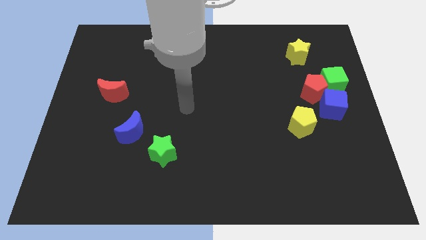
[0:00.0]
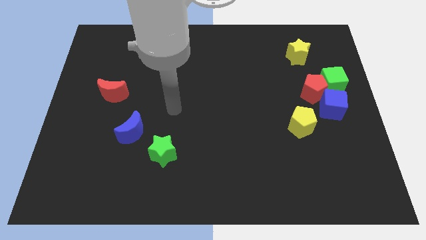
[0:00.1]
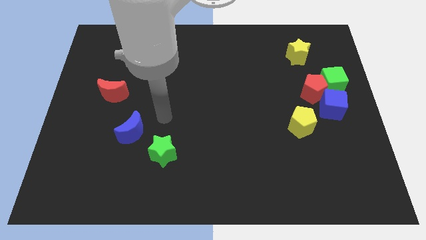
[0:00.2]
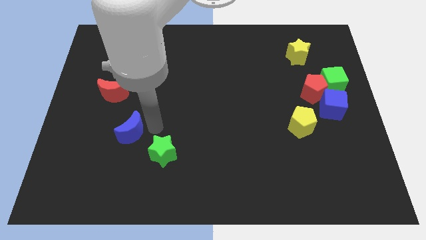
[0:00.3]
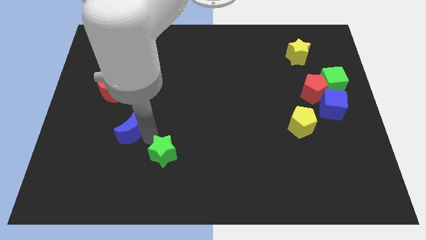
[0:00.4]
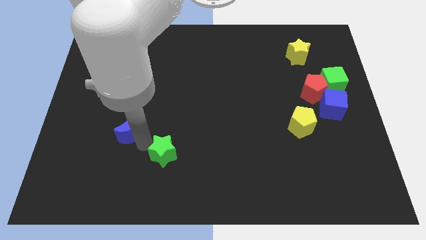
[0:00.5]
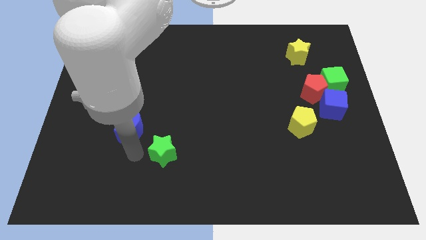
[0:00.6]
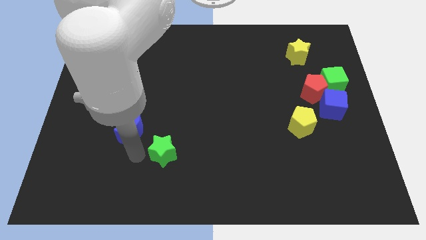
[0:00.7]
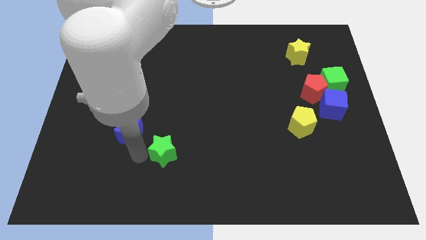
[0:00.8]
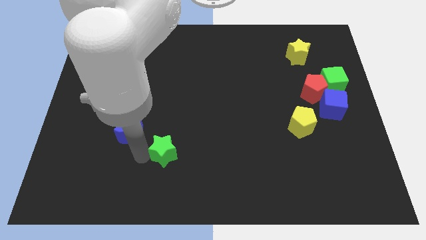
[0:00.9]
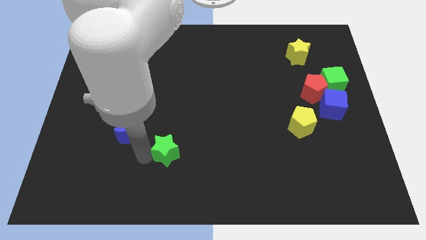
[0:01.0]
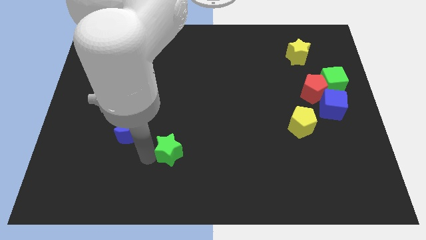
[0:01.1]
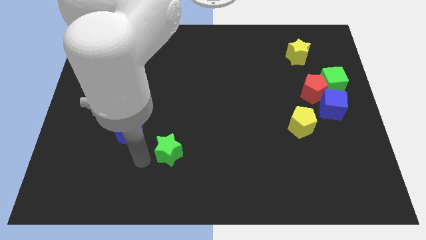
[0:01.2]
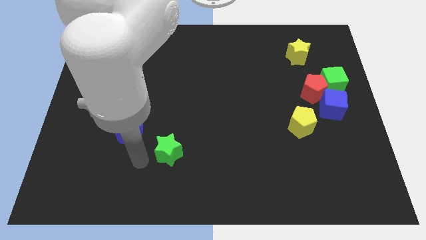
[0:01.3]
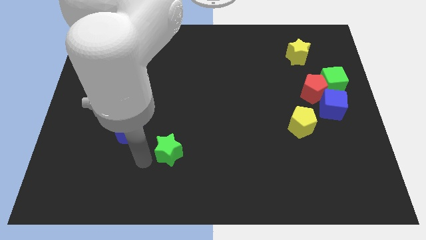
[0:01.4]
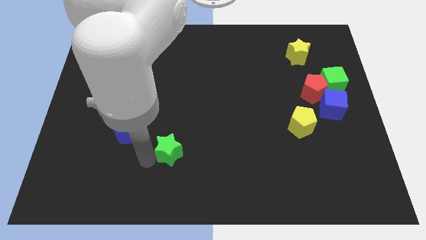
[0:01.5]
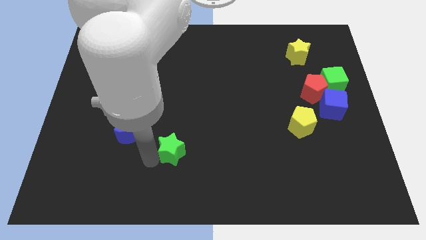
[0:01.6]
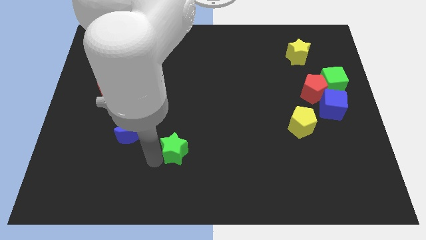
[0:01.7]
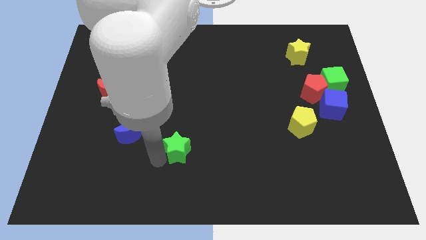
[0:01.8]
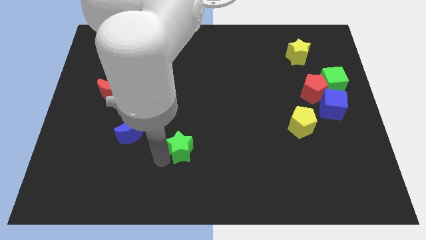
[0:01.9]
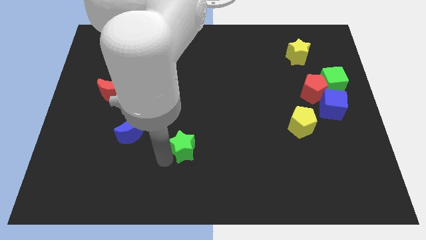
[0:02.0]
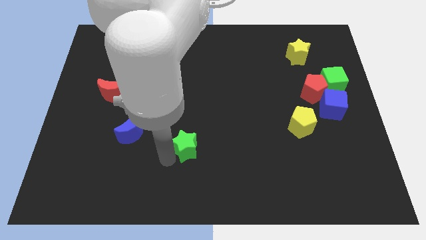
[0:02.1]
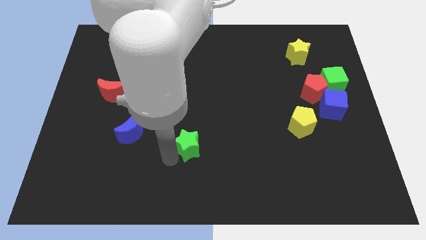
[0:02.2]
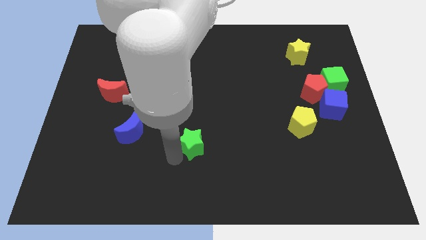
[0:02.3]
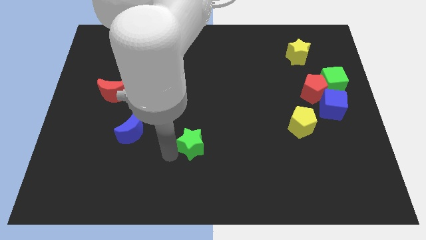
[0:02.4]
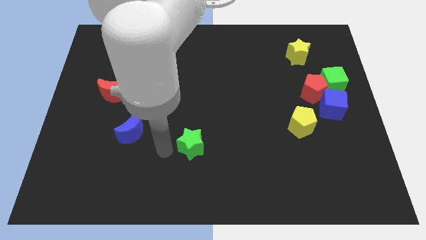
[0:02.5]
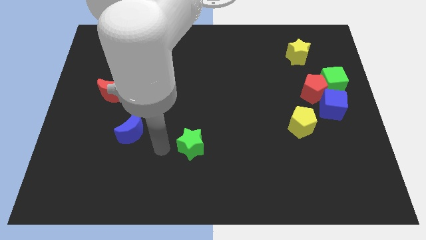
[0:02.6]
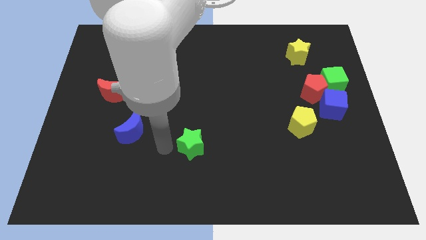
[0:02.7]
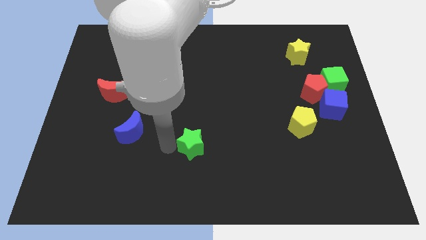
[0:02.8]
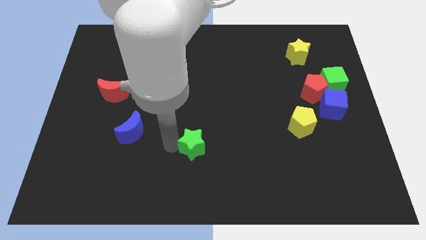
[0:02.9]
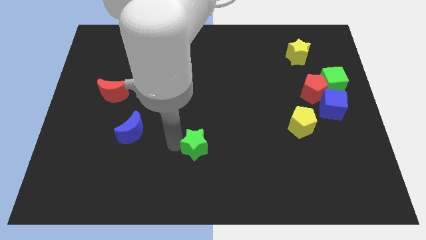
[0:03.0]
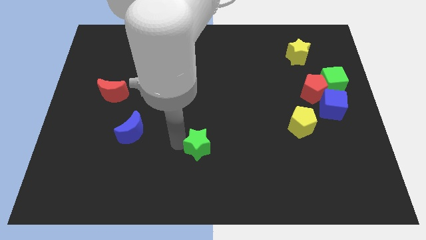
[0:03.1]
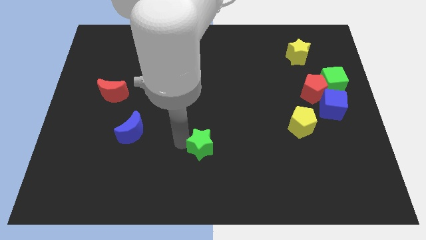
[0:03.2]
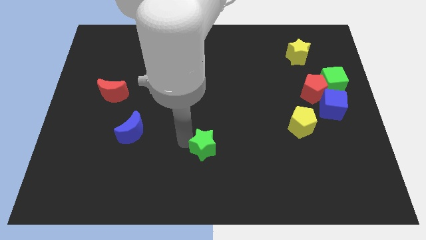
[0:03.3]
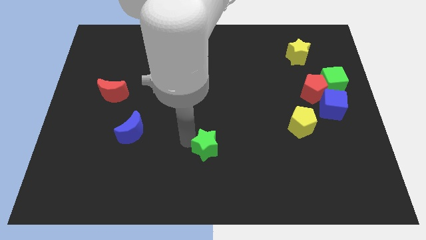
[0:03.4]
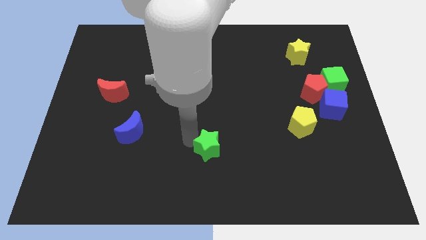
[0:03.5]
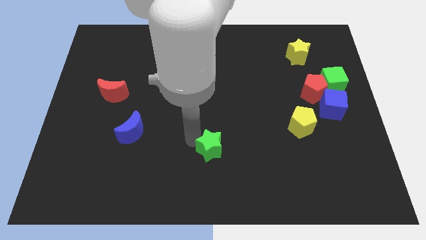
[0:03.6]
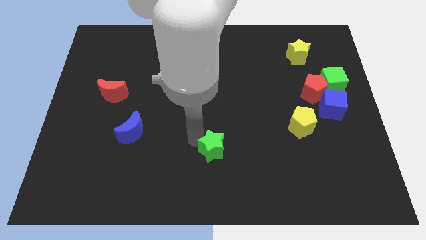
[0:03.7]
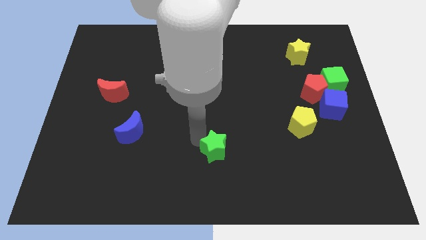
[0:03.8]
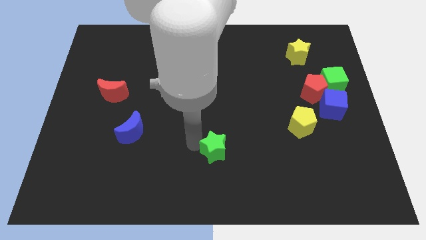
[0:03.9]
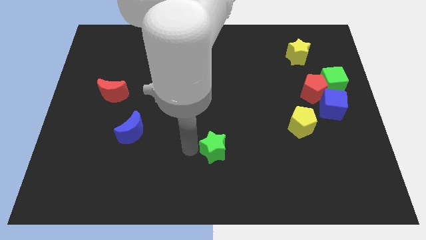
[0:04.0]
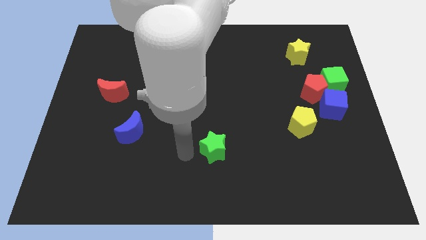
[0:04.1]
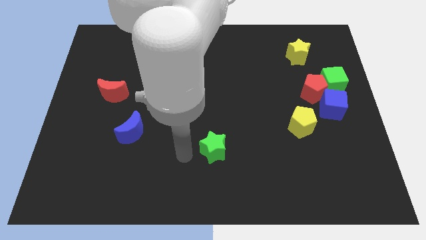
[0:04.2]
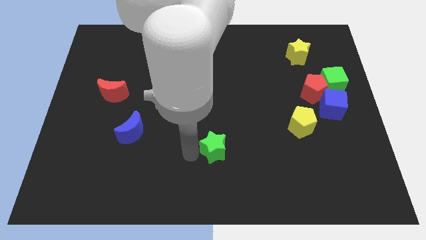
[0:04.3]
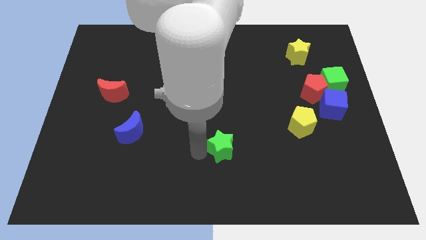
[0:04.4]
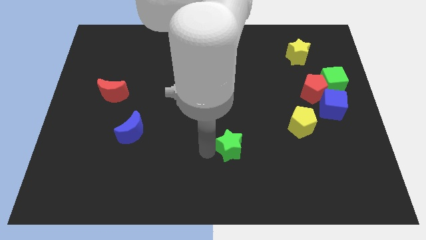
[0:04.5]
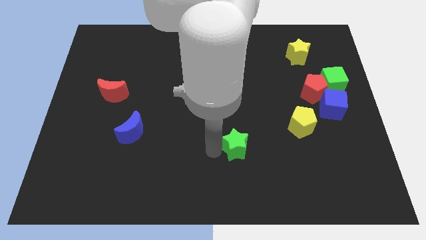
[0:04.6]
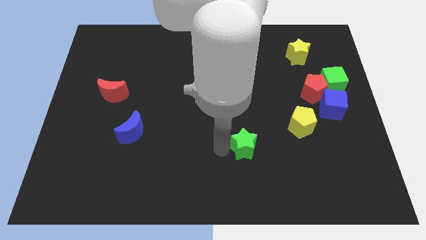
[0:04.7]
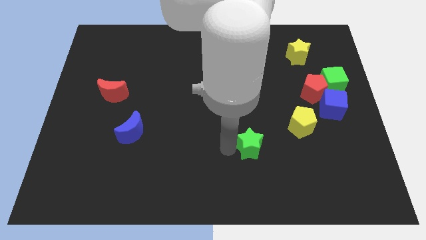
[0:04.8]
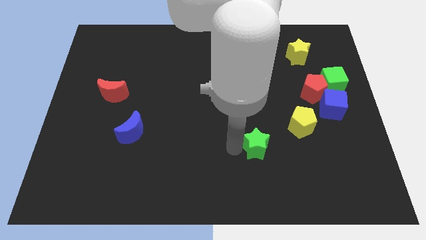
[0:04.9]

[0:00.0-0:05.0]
push the green star to the right
